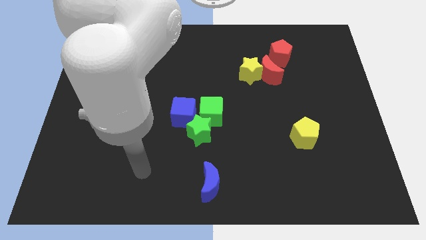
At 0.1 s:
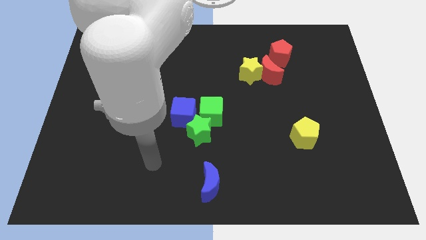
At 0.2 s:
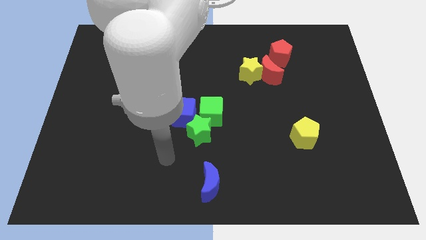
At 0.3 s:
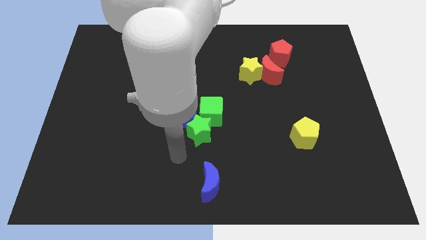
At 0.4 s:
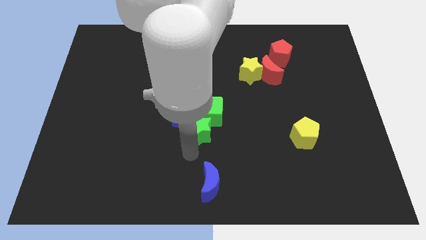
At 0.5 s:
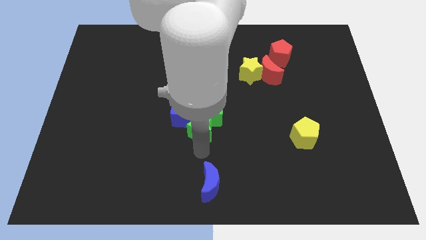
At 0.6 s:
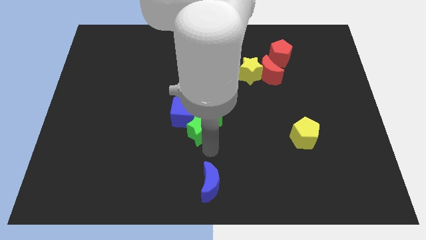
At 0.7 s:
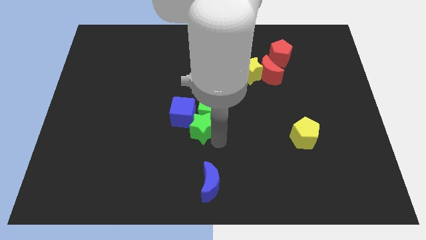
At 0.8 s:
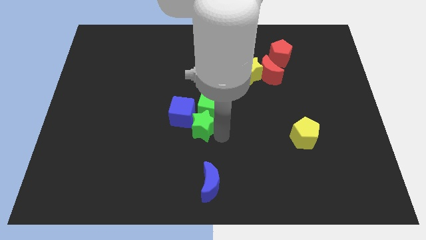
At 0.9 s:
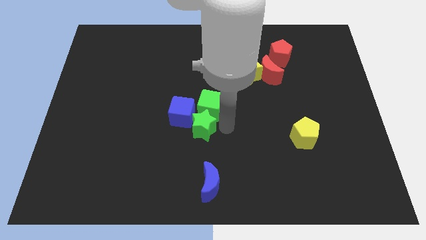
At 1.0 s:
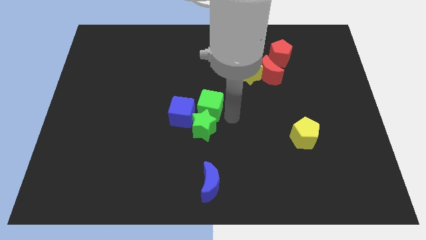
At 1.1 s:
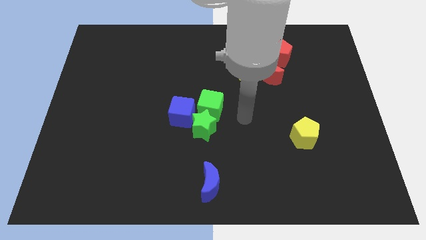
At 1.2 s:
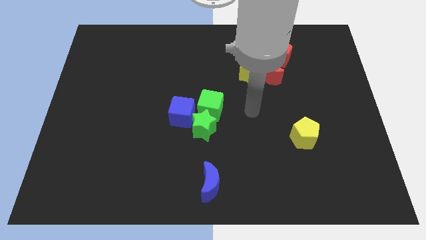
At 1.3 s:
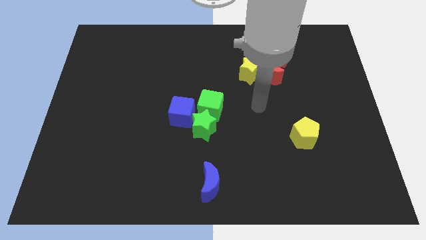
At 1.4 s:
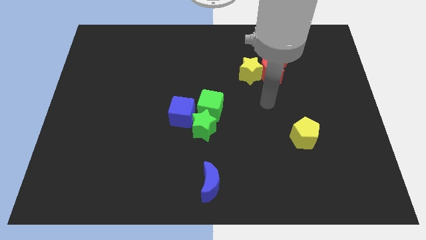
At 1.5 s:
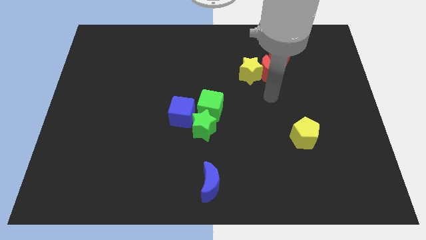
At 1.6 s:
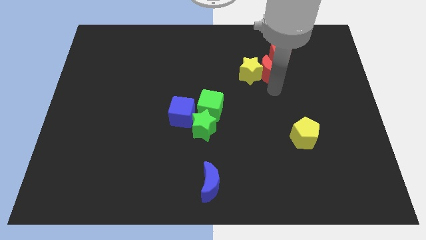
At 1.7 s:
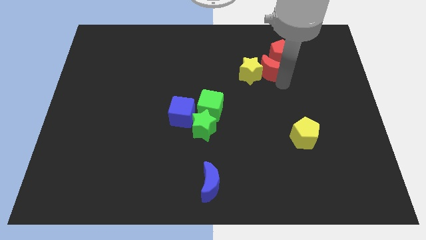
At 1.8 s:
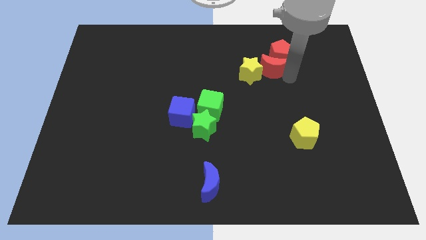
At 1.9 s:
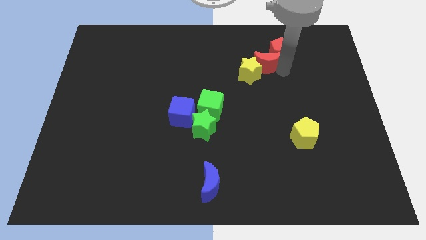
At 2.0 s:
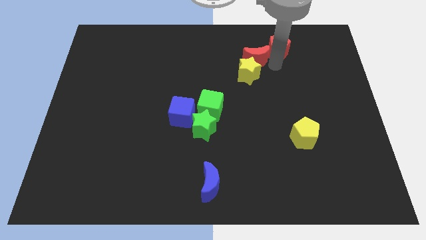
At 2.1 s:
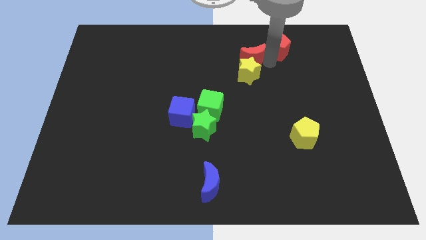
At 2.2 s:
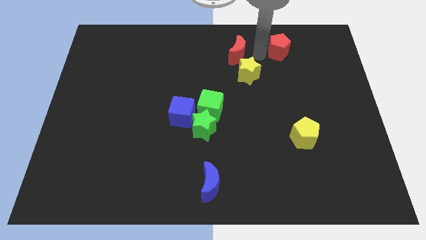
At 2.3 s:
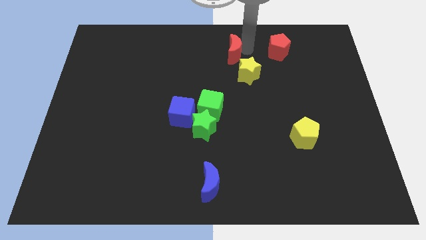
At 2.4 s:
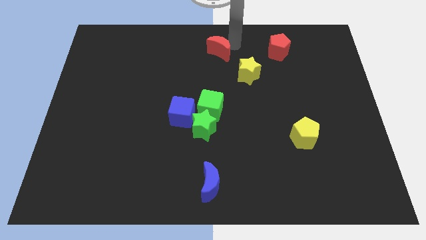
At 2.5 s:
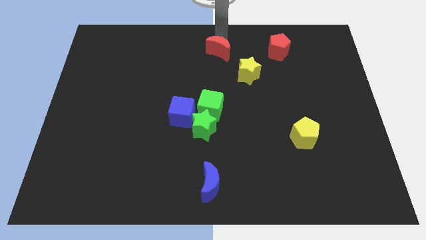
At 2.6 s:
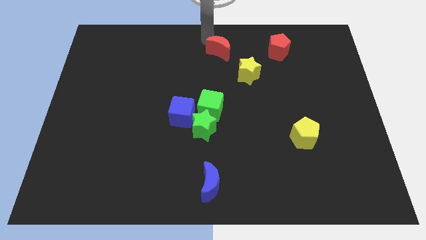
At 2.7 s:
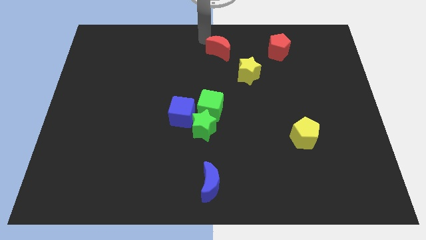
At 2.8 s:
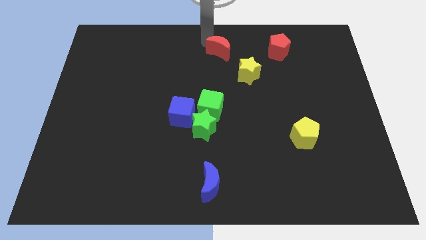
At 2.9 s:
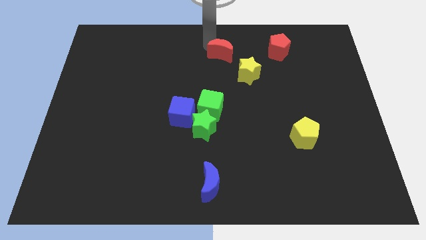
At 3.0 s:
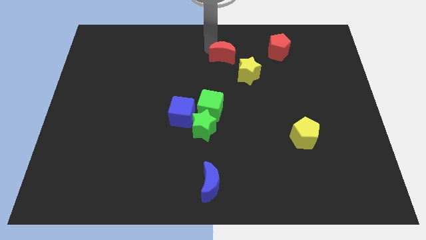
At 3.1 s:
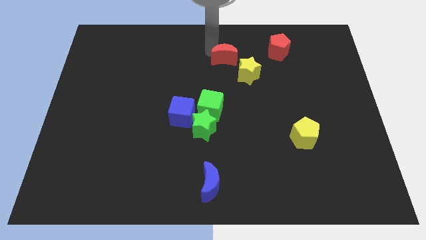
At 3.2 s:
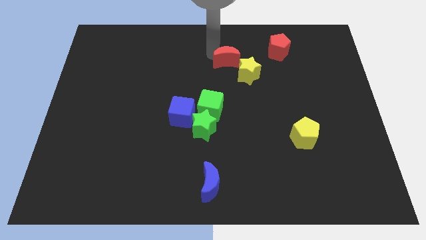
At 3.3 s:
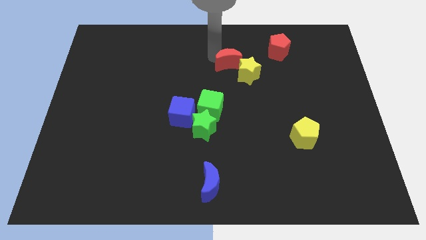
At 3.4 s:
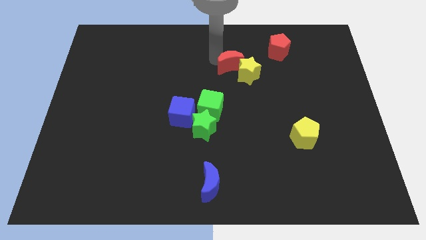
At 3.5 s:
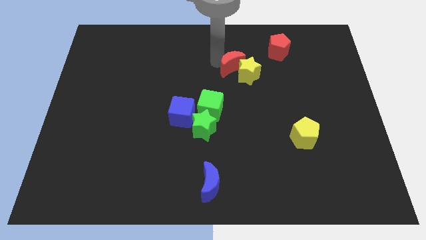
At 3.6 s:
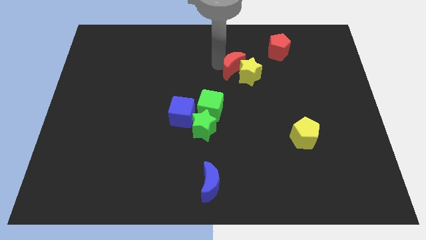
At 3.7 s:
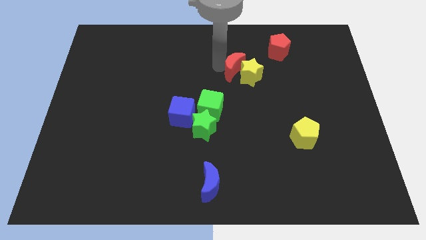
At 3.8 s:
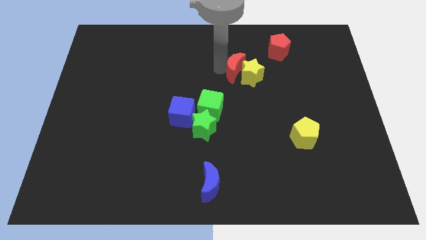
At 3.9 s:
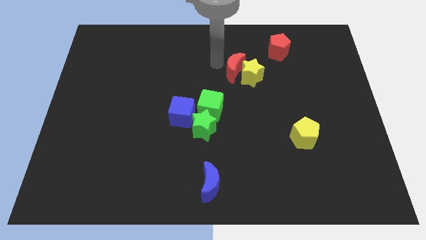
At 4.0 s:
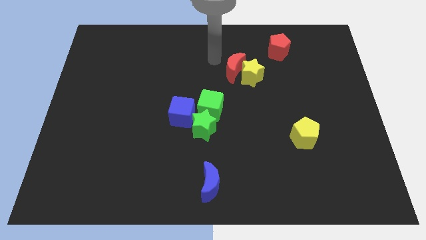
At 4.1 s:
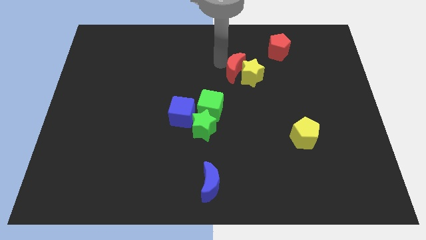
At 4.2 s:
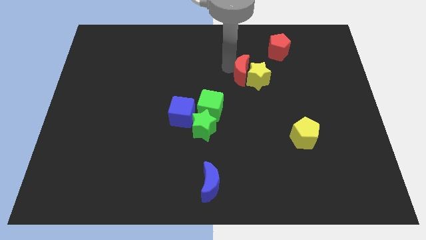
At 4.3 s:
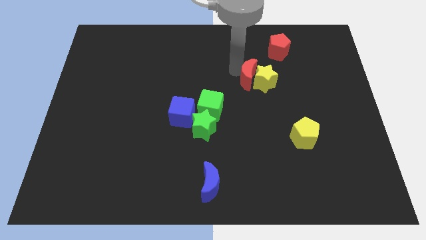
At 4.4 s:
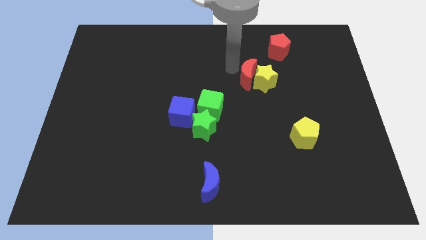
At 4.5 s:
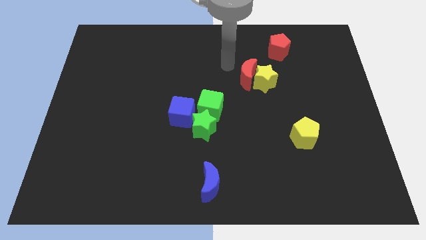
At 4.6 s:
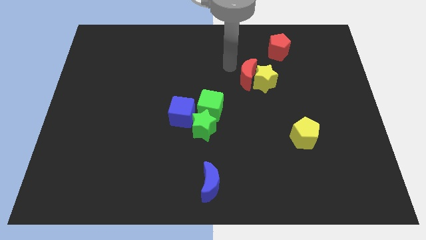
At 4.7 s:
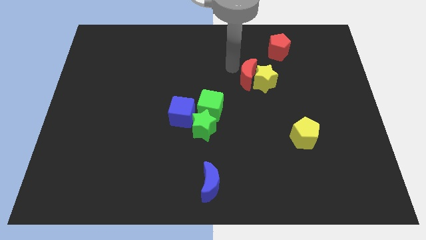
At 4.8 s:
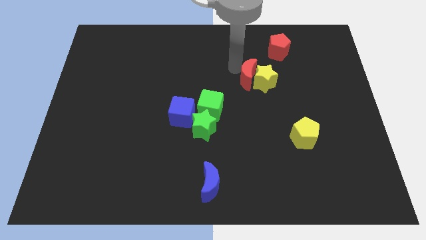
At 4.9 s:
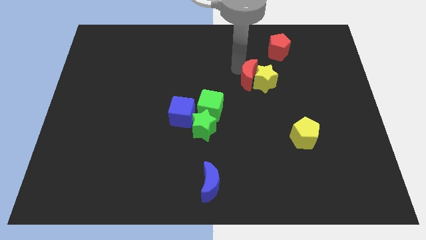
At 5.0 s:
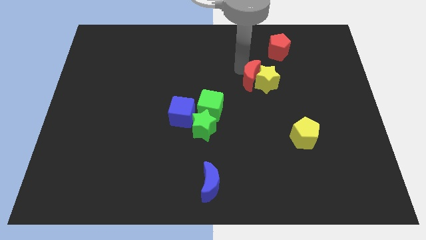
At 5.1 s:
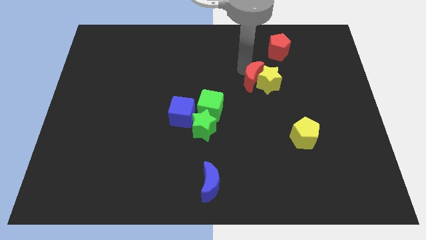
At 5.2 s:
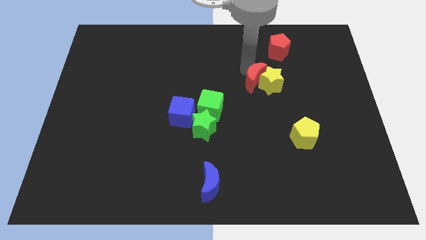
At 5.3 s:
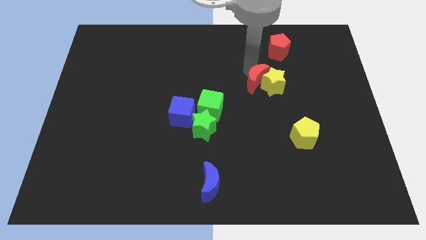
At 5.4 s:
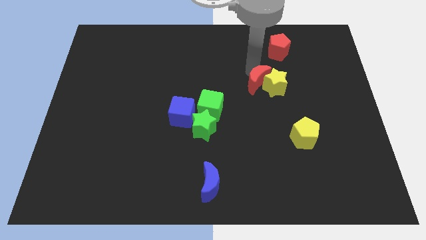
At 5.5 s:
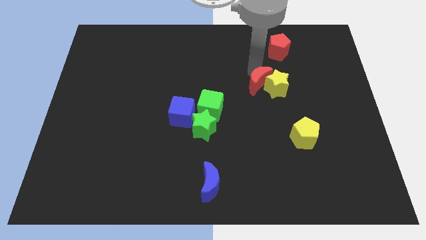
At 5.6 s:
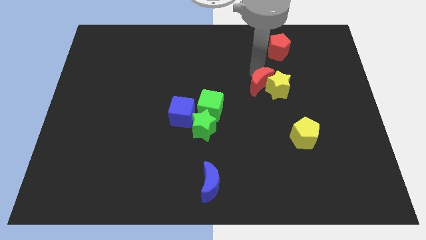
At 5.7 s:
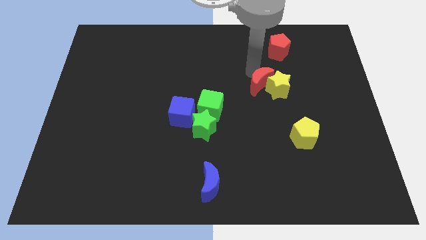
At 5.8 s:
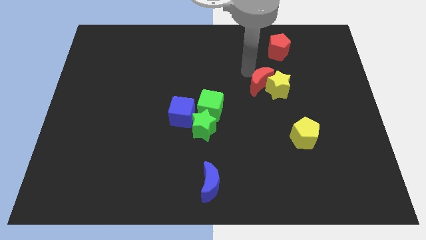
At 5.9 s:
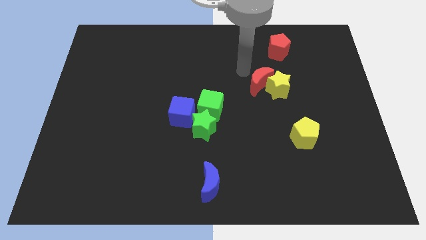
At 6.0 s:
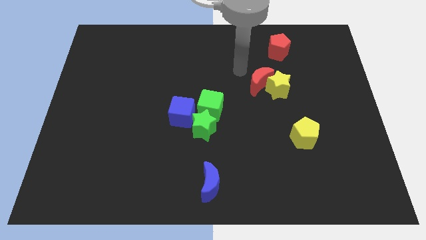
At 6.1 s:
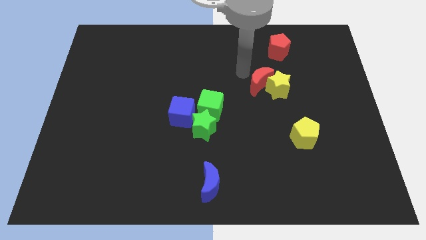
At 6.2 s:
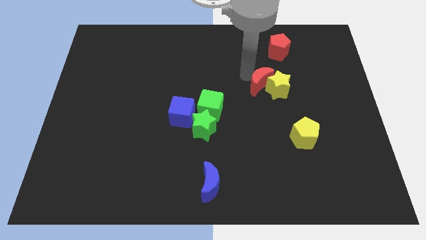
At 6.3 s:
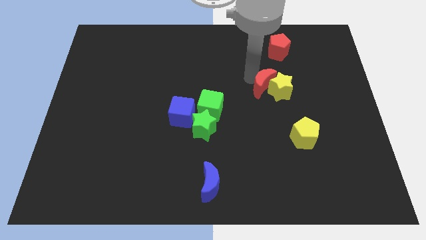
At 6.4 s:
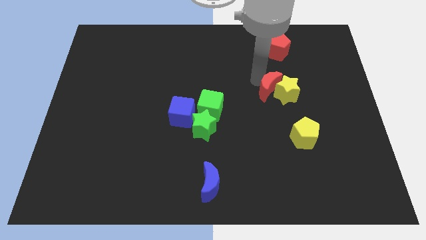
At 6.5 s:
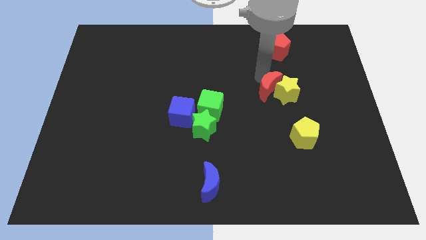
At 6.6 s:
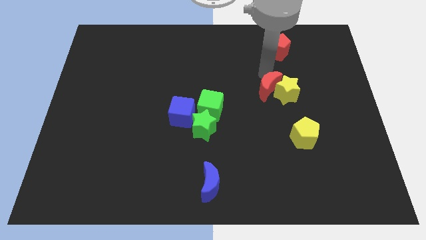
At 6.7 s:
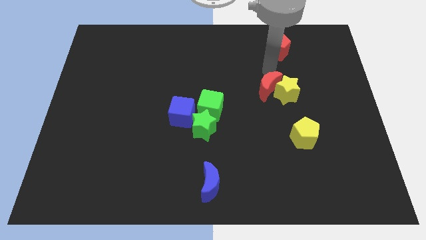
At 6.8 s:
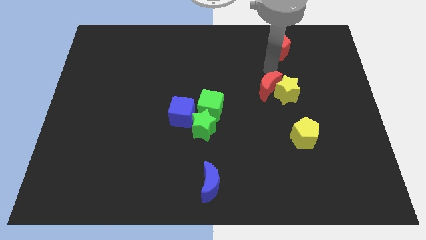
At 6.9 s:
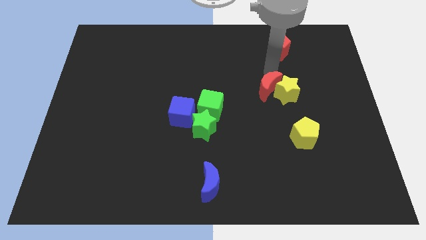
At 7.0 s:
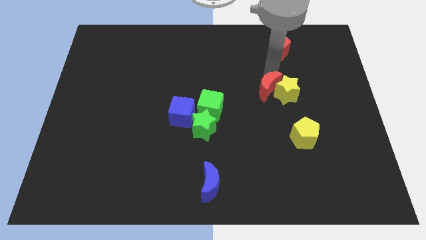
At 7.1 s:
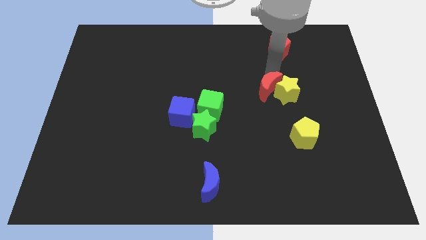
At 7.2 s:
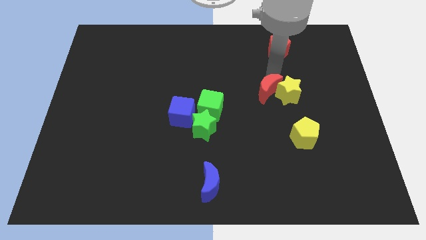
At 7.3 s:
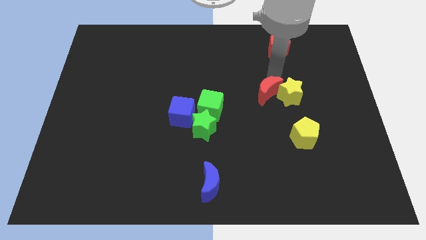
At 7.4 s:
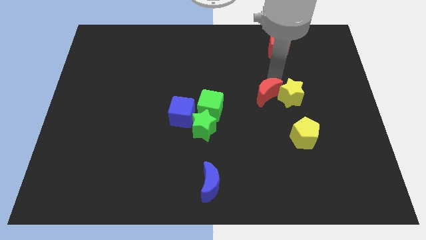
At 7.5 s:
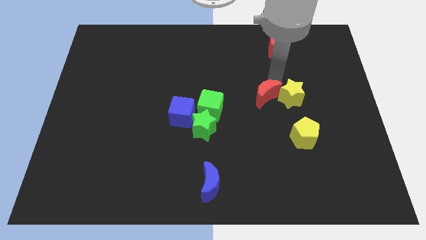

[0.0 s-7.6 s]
slide the red moon slightly down
